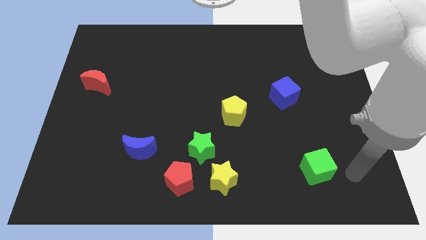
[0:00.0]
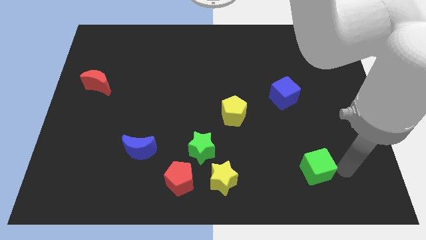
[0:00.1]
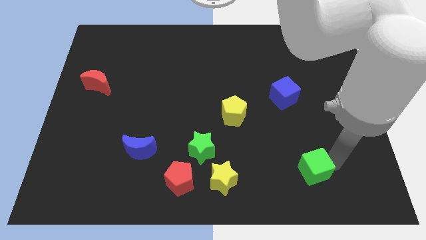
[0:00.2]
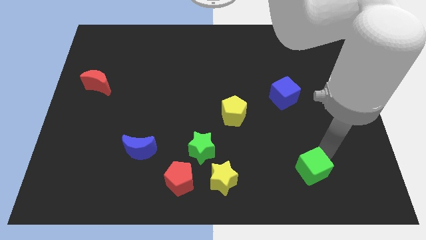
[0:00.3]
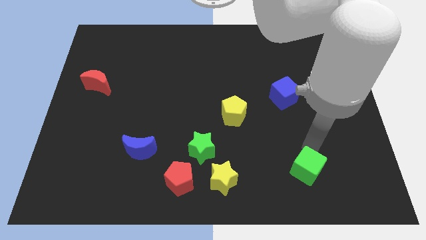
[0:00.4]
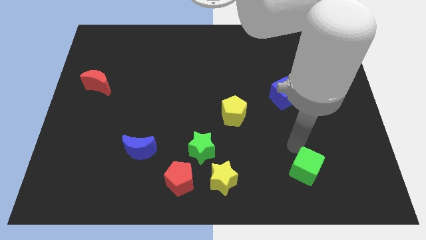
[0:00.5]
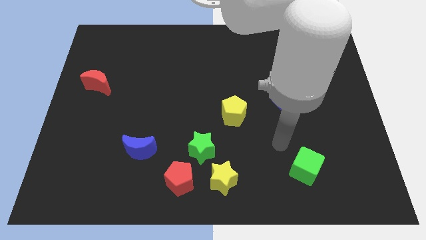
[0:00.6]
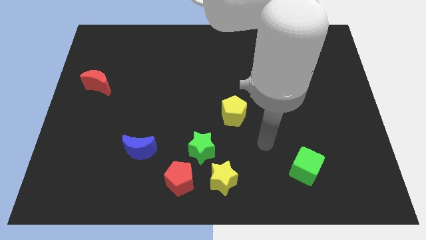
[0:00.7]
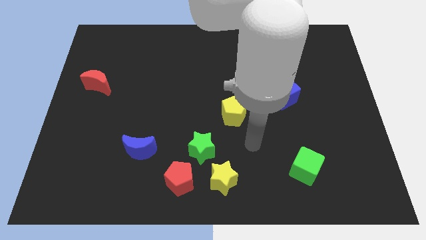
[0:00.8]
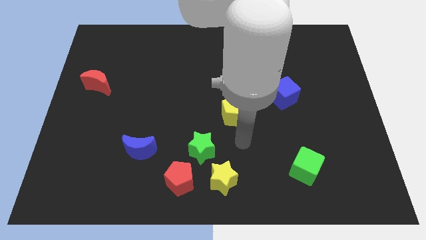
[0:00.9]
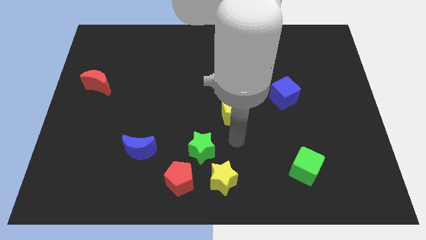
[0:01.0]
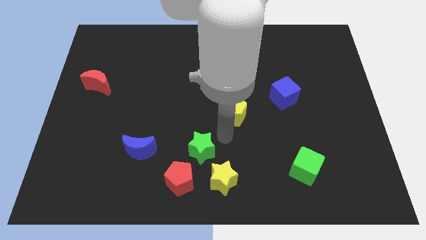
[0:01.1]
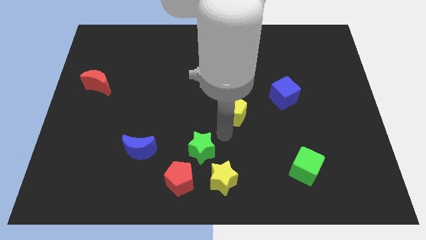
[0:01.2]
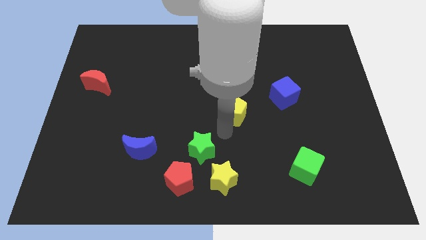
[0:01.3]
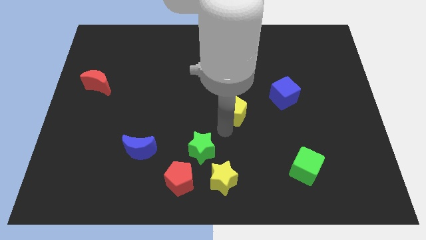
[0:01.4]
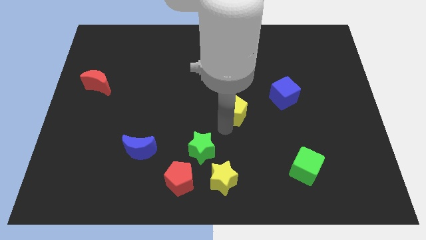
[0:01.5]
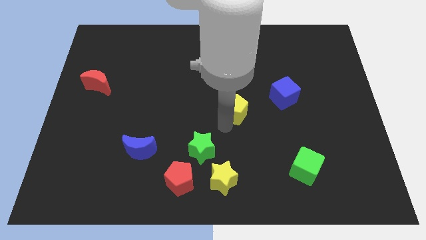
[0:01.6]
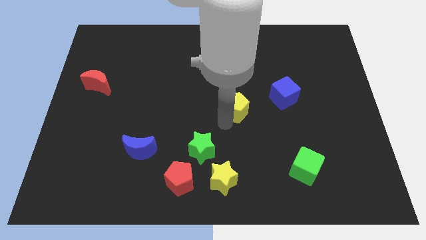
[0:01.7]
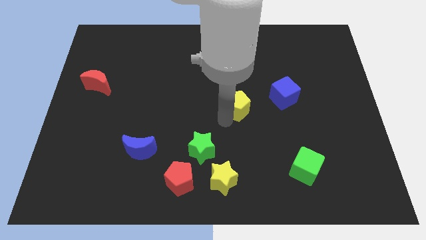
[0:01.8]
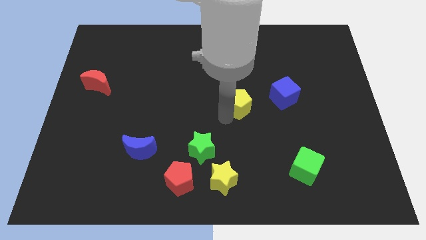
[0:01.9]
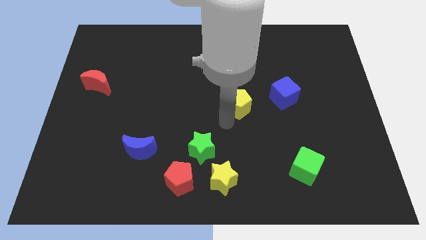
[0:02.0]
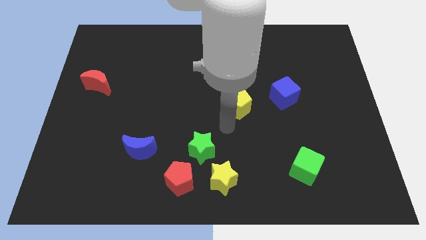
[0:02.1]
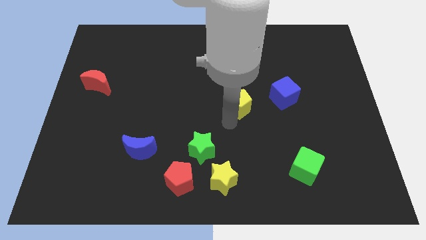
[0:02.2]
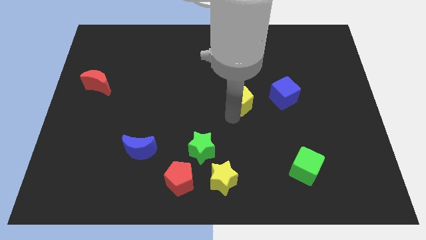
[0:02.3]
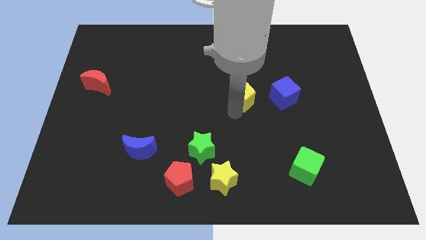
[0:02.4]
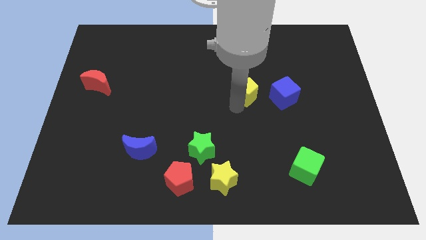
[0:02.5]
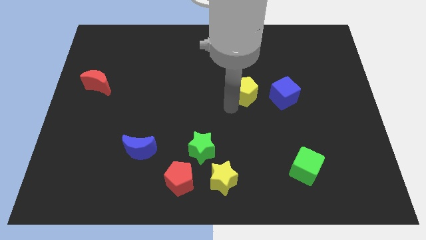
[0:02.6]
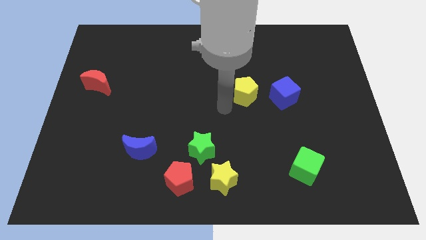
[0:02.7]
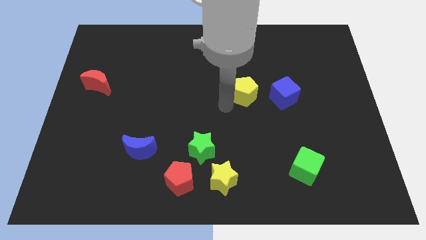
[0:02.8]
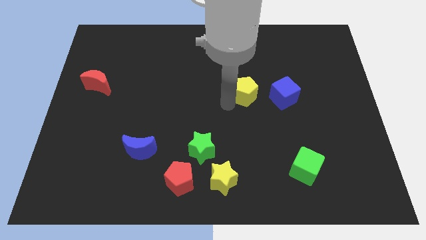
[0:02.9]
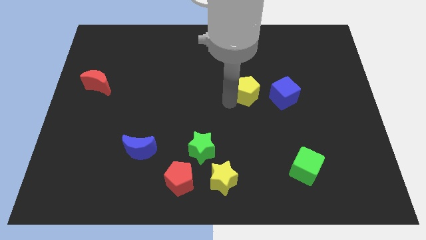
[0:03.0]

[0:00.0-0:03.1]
move the yellow pentagon up and right diagonally slightly

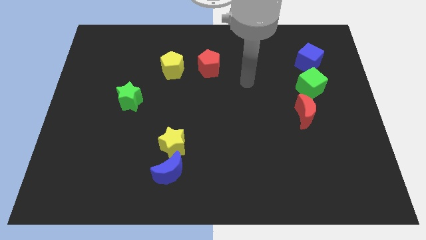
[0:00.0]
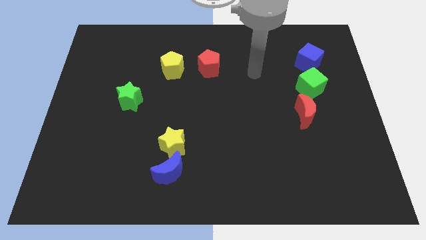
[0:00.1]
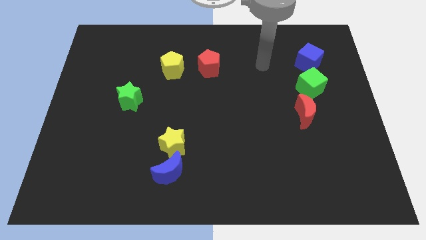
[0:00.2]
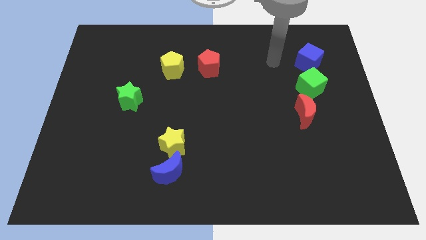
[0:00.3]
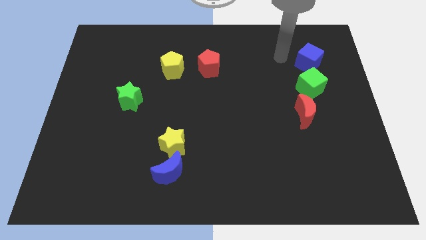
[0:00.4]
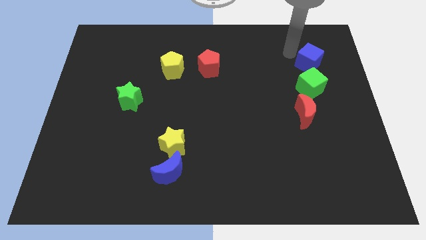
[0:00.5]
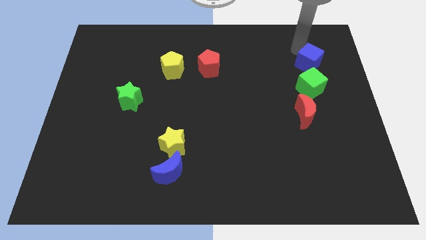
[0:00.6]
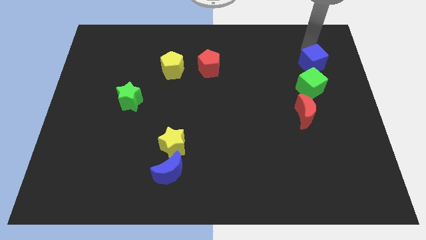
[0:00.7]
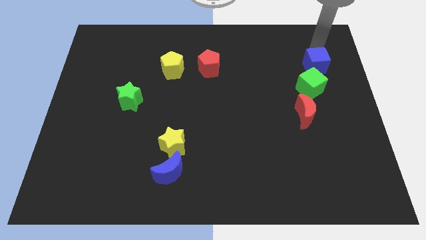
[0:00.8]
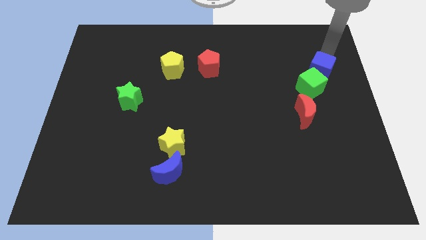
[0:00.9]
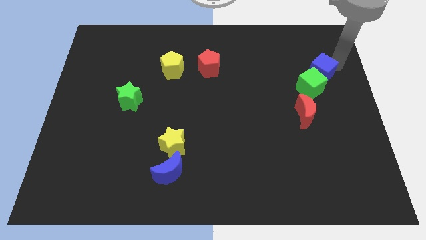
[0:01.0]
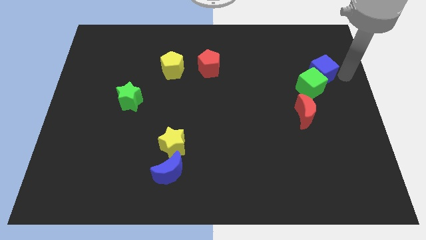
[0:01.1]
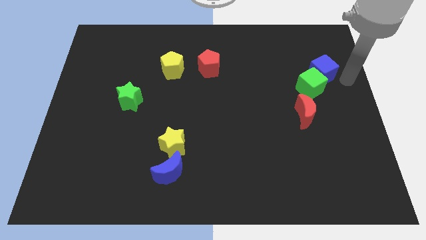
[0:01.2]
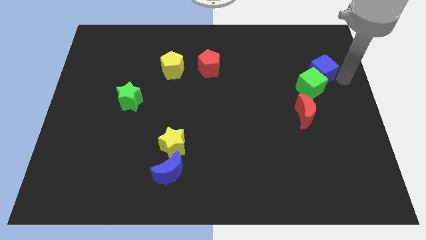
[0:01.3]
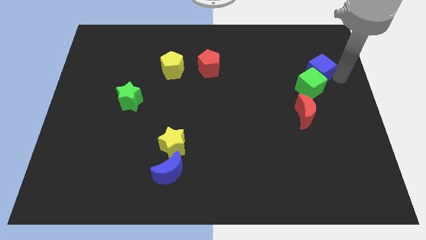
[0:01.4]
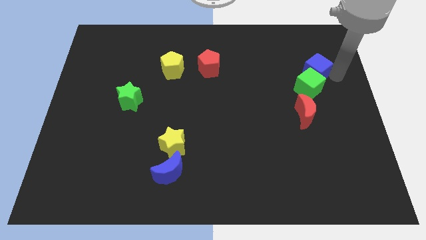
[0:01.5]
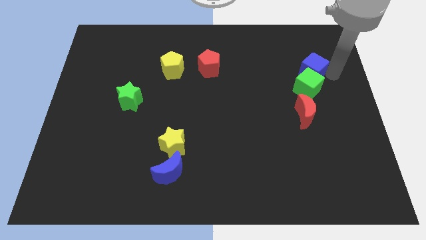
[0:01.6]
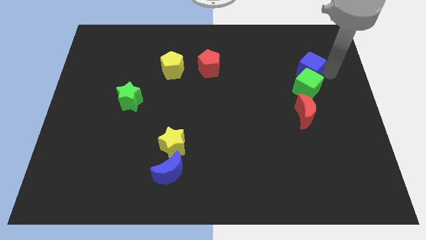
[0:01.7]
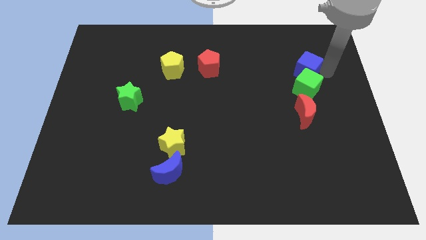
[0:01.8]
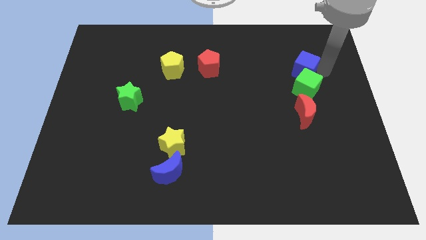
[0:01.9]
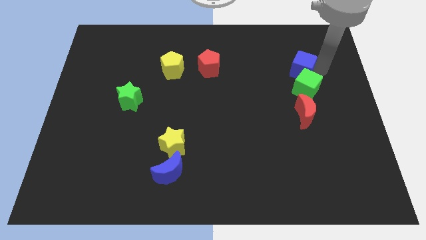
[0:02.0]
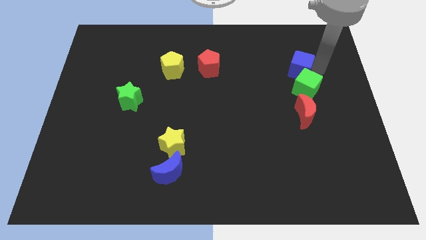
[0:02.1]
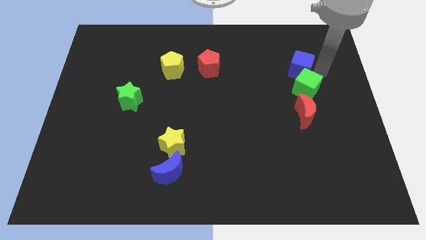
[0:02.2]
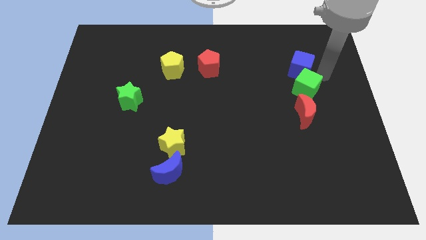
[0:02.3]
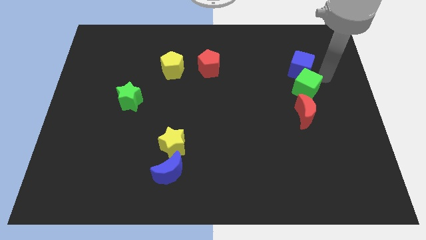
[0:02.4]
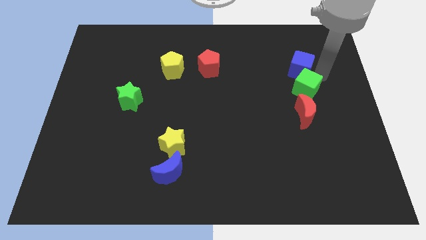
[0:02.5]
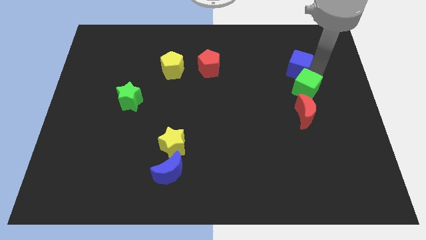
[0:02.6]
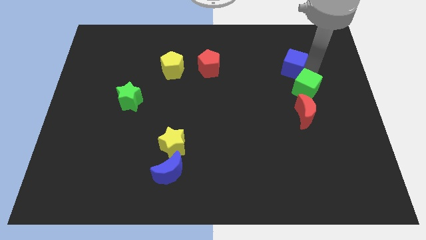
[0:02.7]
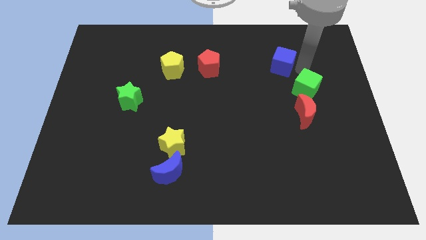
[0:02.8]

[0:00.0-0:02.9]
slide the blue cube a little left

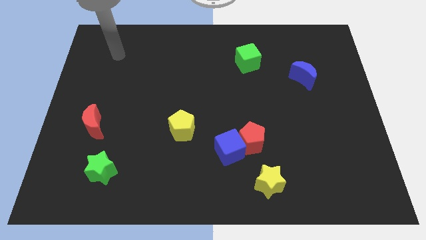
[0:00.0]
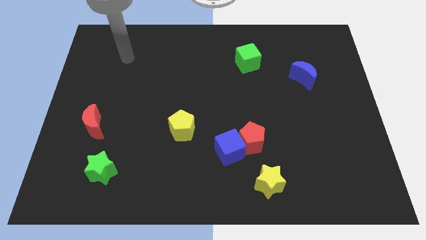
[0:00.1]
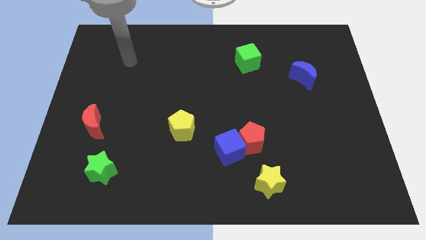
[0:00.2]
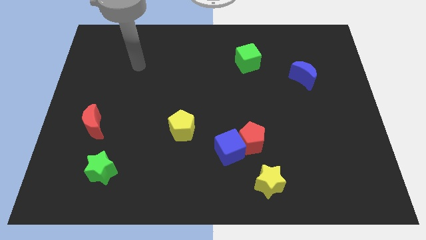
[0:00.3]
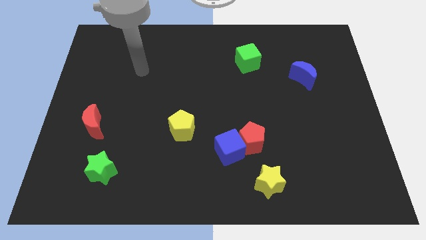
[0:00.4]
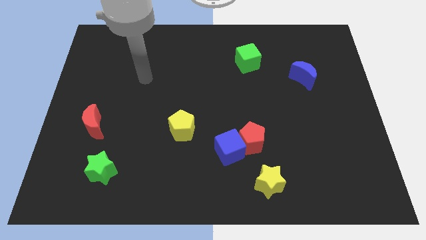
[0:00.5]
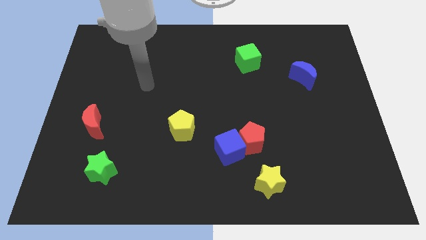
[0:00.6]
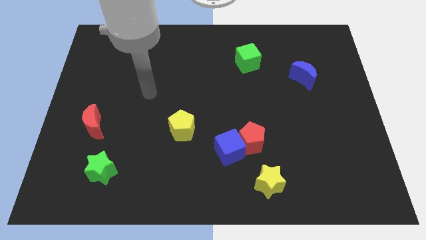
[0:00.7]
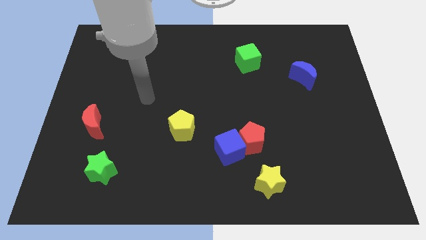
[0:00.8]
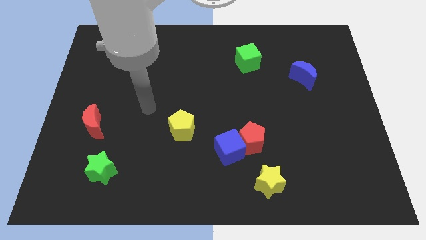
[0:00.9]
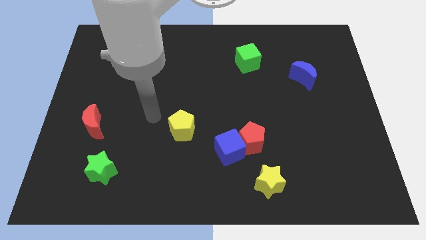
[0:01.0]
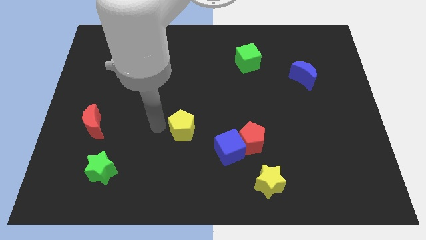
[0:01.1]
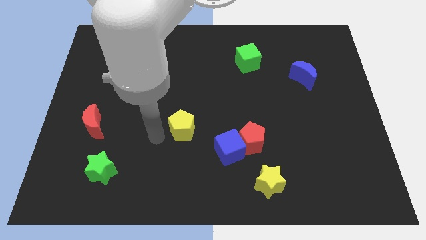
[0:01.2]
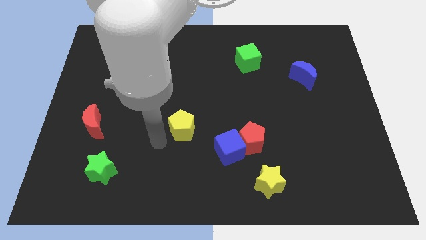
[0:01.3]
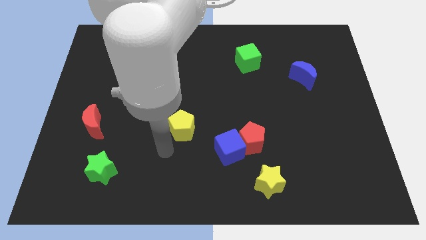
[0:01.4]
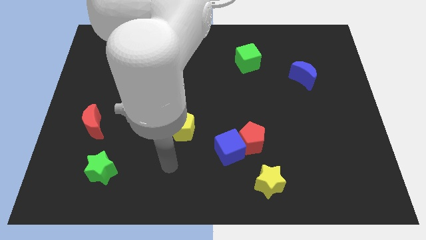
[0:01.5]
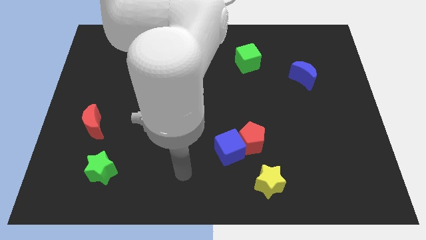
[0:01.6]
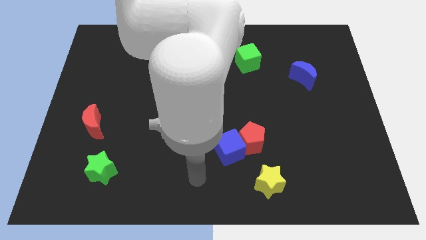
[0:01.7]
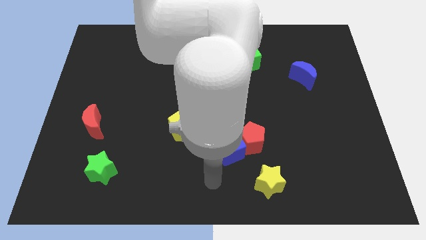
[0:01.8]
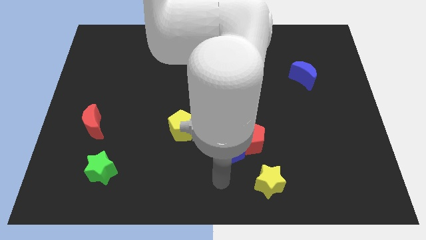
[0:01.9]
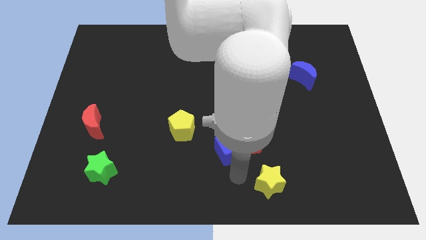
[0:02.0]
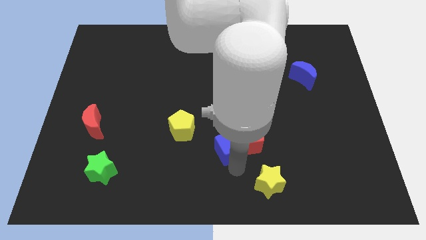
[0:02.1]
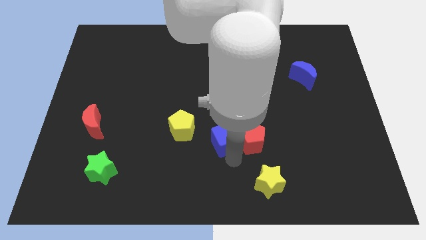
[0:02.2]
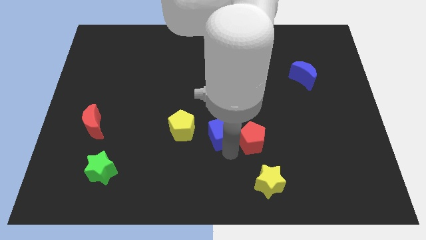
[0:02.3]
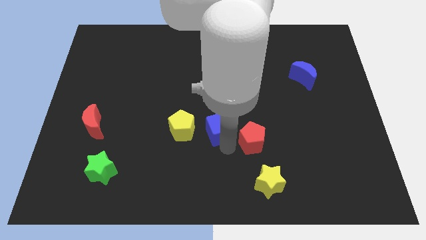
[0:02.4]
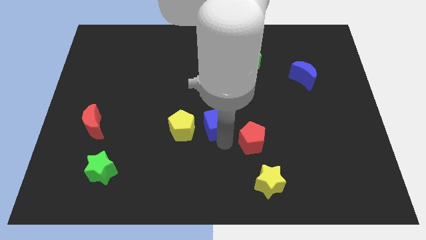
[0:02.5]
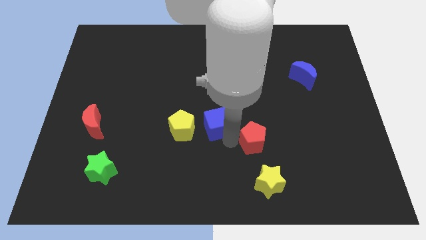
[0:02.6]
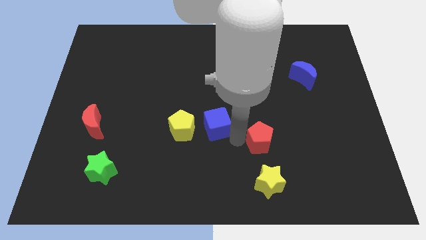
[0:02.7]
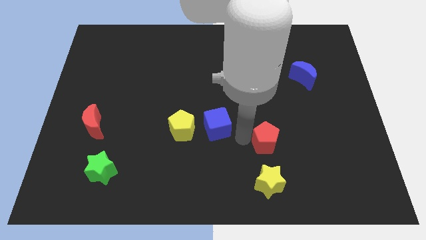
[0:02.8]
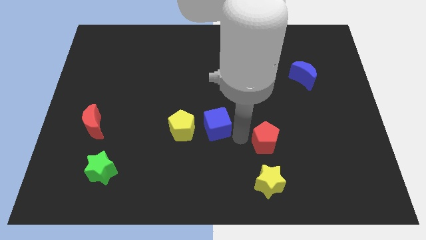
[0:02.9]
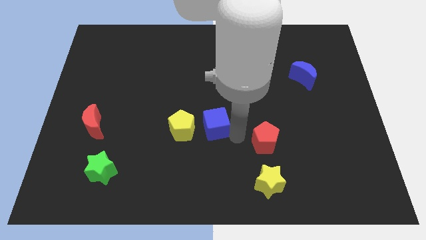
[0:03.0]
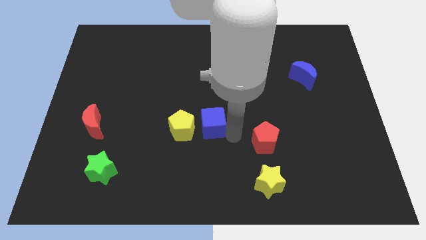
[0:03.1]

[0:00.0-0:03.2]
move the blue cube up and to the left a little bit
